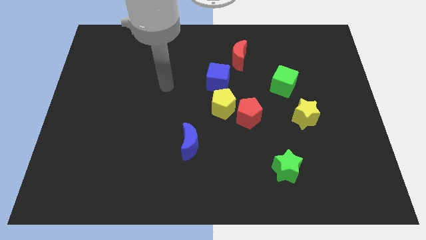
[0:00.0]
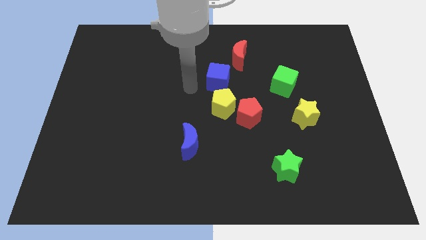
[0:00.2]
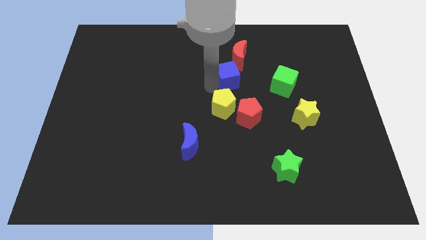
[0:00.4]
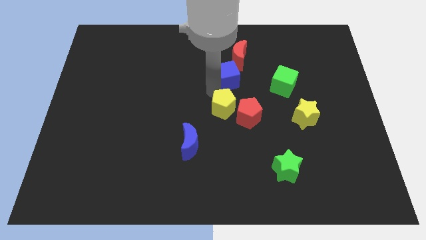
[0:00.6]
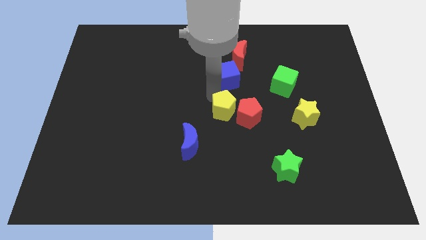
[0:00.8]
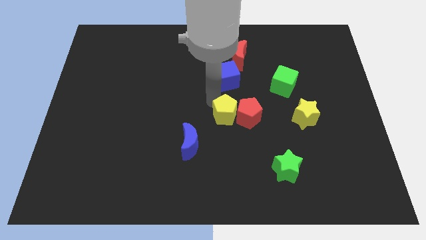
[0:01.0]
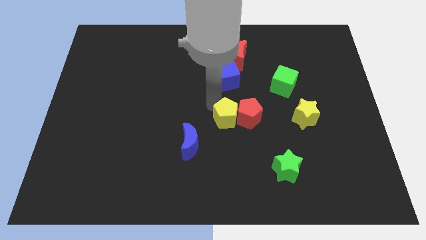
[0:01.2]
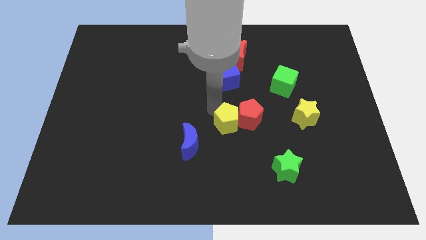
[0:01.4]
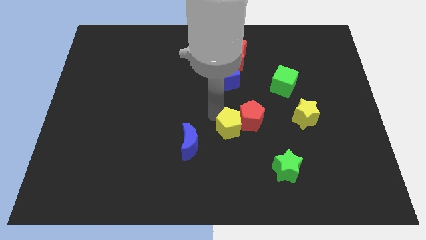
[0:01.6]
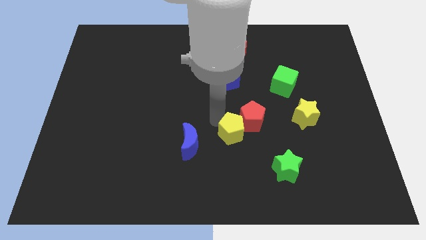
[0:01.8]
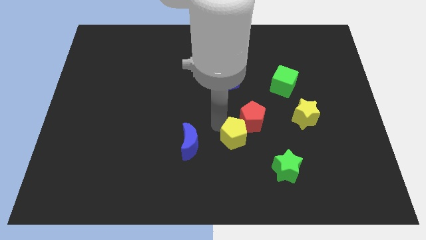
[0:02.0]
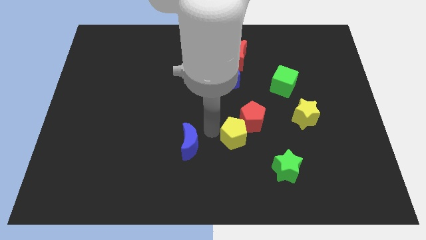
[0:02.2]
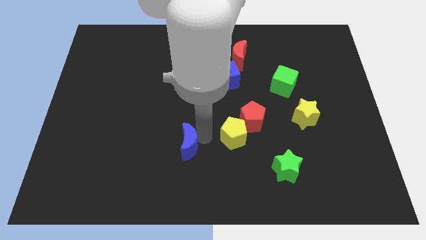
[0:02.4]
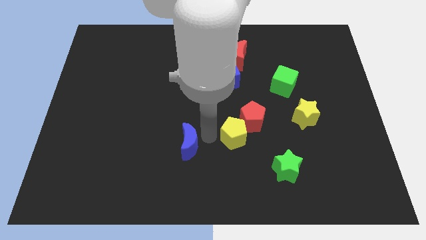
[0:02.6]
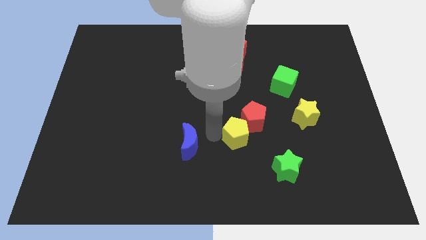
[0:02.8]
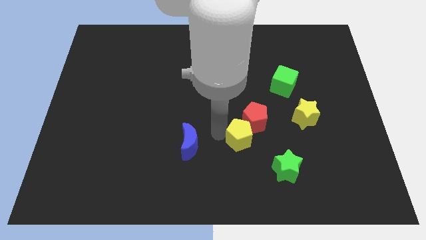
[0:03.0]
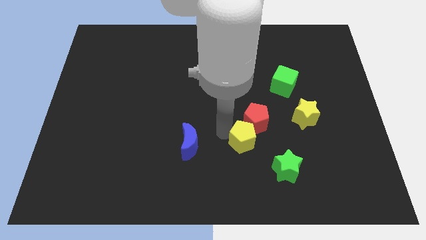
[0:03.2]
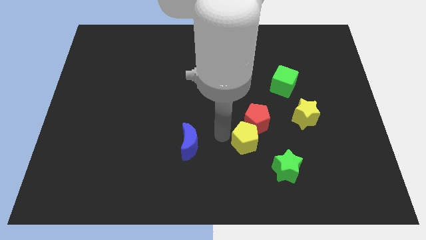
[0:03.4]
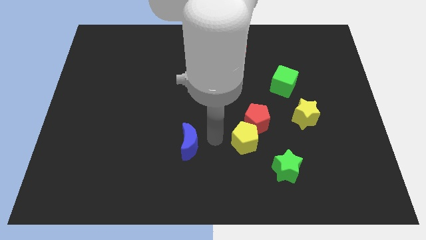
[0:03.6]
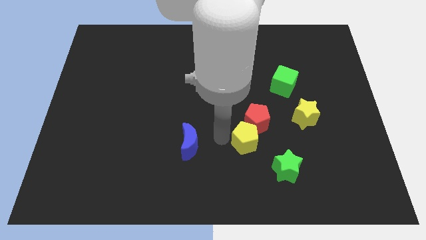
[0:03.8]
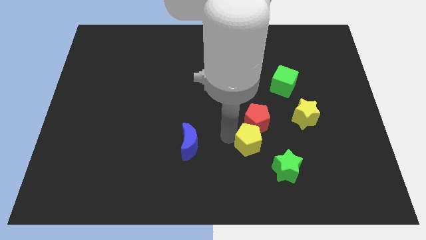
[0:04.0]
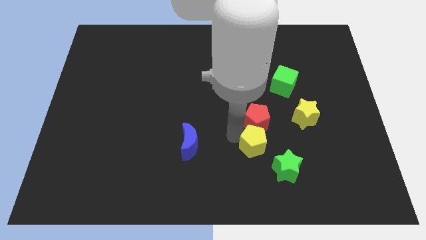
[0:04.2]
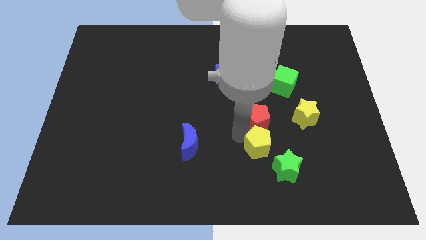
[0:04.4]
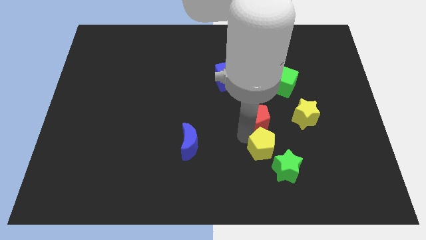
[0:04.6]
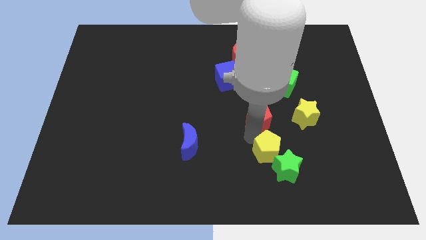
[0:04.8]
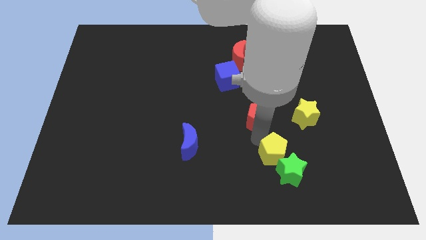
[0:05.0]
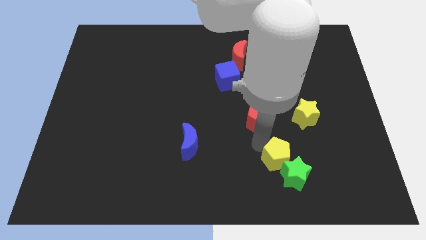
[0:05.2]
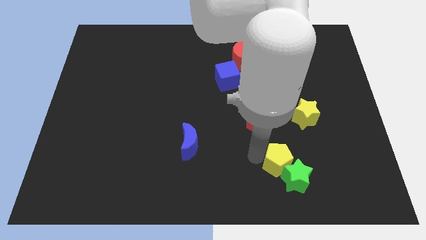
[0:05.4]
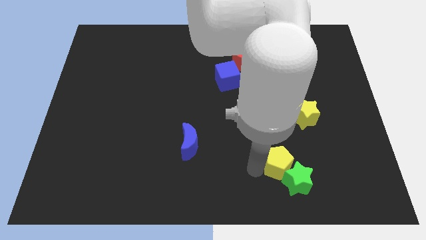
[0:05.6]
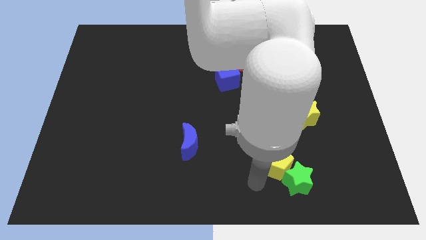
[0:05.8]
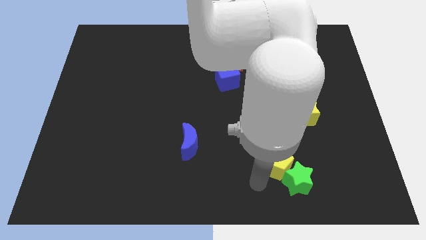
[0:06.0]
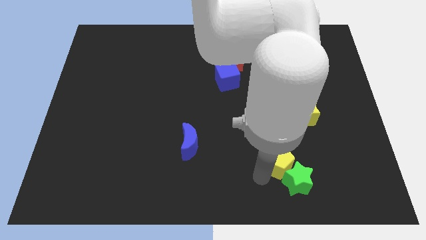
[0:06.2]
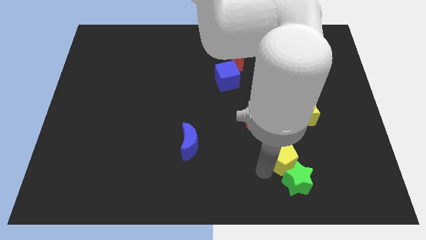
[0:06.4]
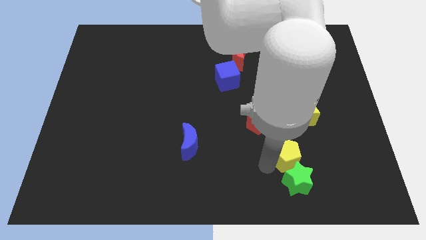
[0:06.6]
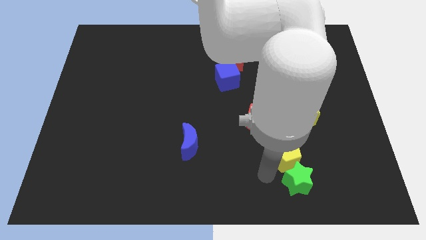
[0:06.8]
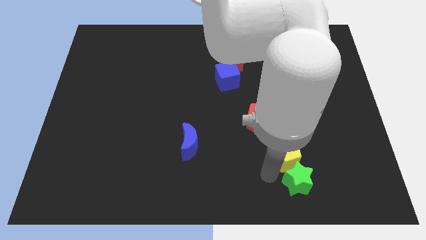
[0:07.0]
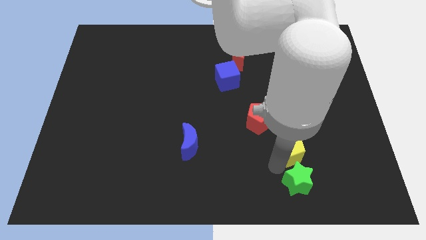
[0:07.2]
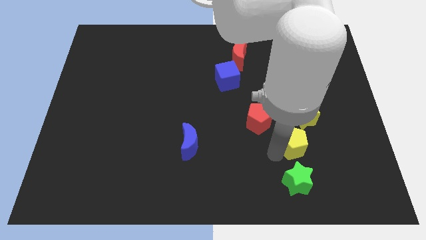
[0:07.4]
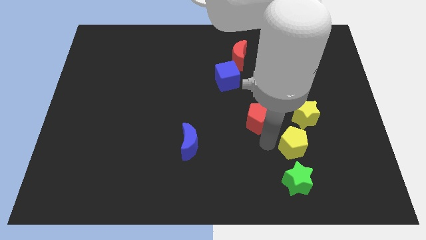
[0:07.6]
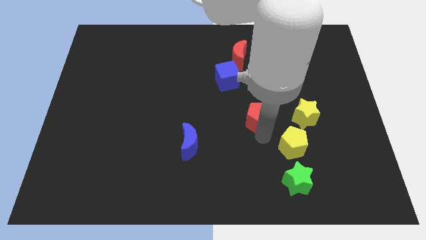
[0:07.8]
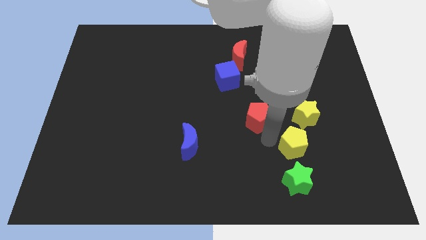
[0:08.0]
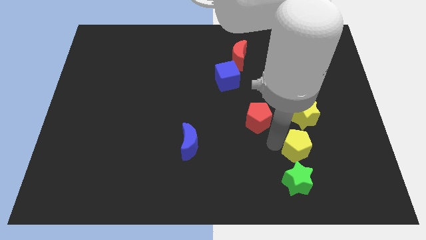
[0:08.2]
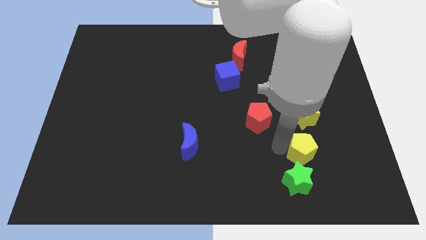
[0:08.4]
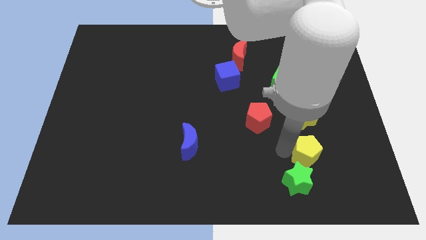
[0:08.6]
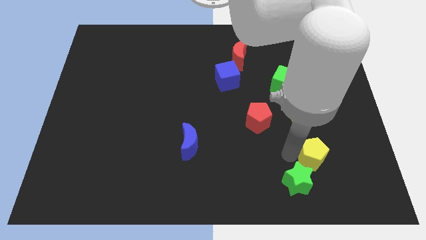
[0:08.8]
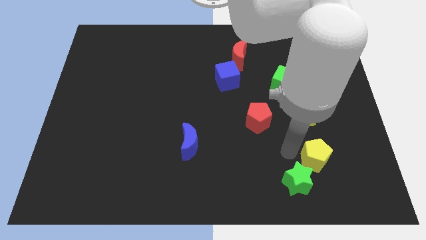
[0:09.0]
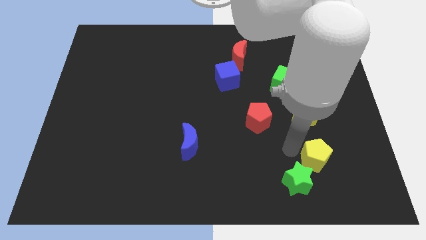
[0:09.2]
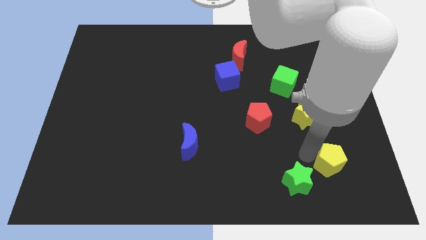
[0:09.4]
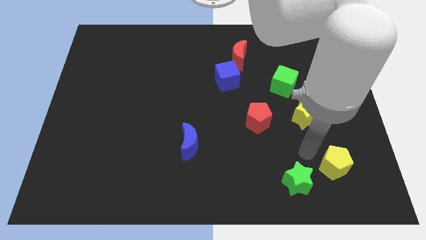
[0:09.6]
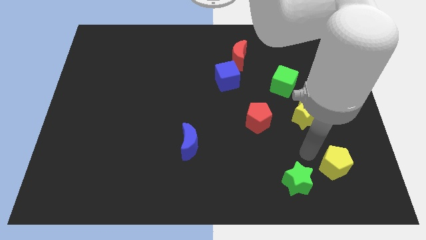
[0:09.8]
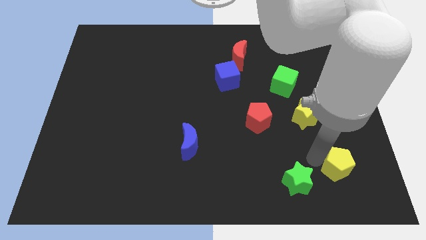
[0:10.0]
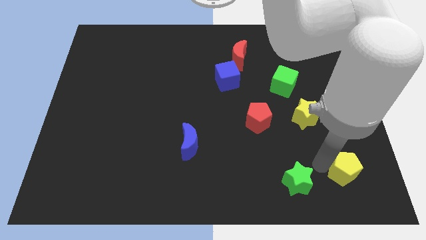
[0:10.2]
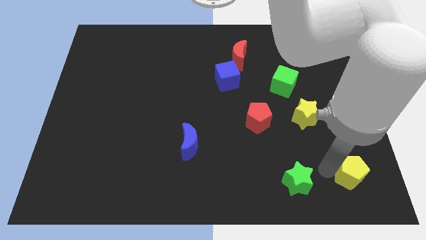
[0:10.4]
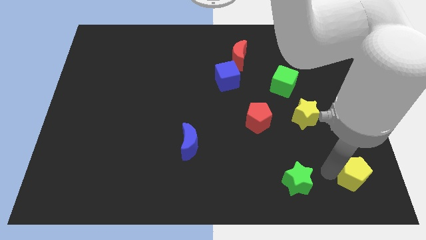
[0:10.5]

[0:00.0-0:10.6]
move the yellow pentagon to the lower right corner
